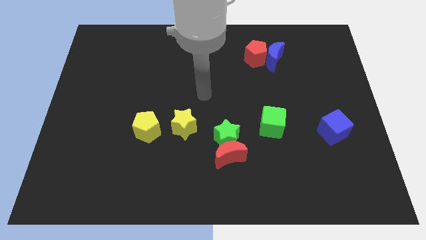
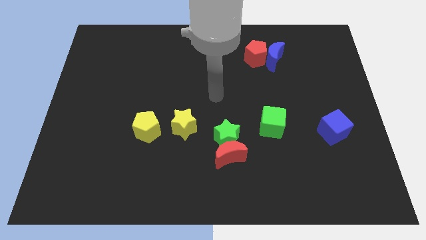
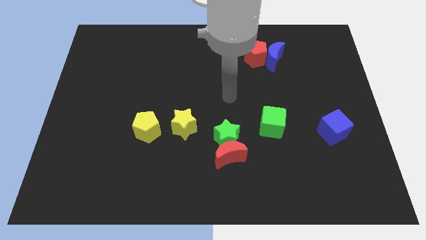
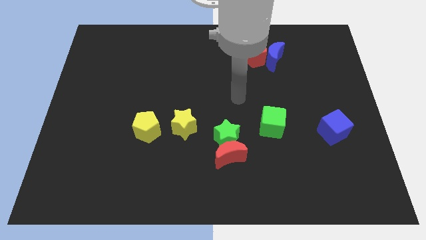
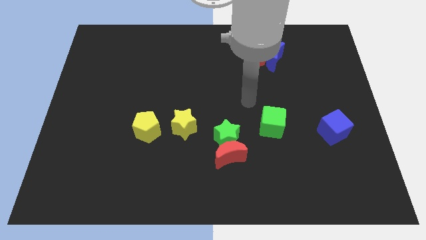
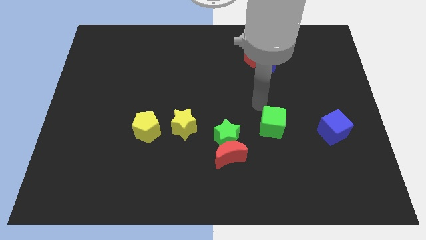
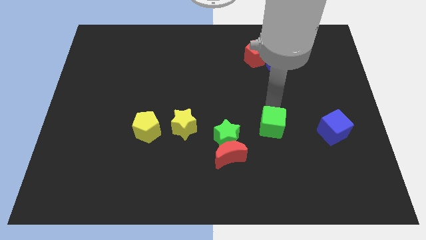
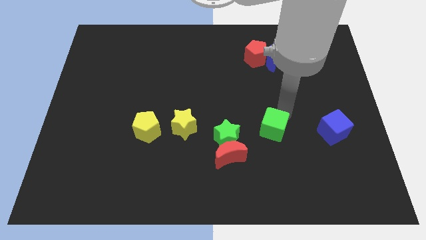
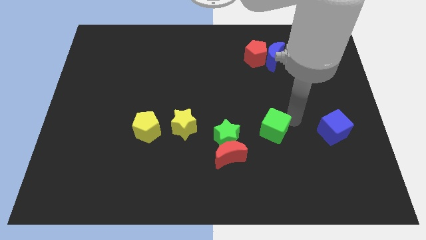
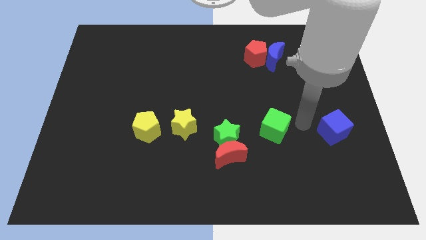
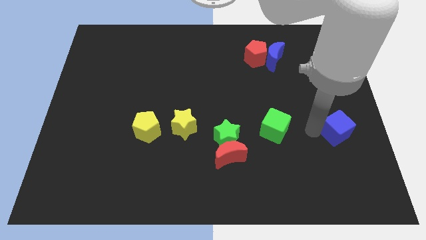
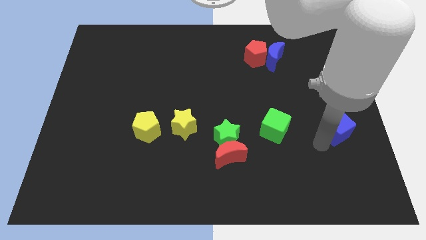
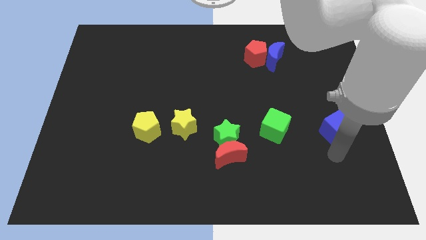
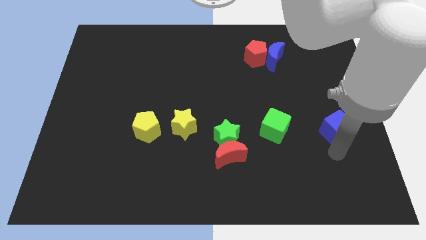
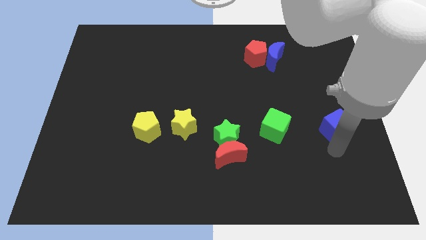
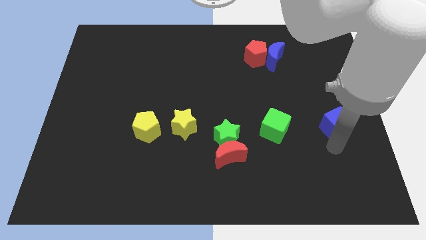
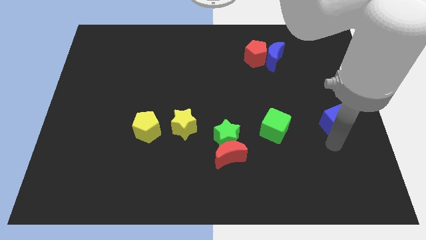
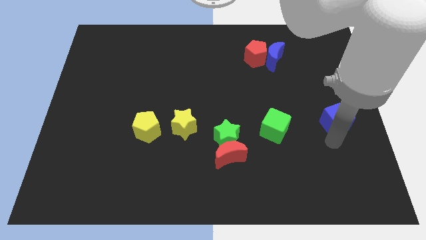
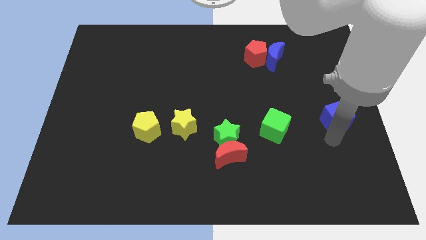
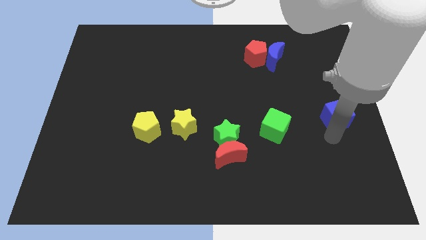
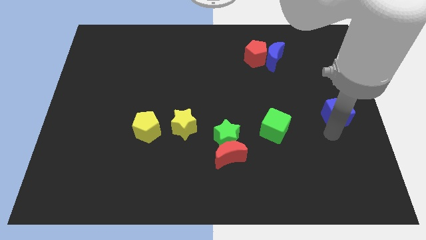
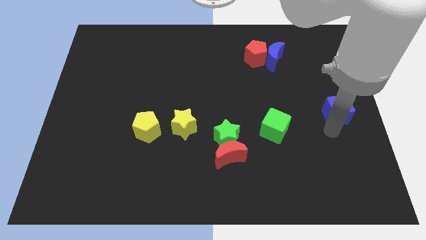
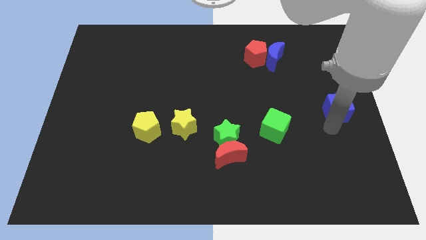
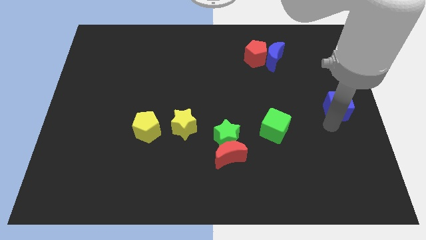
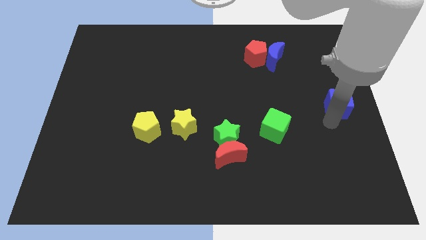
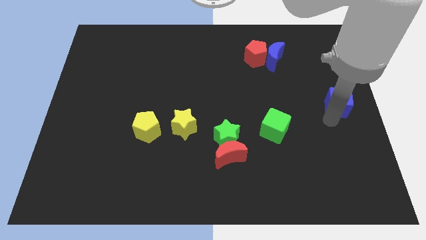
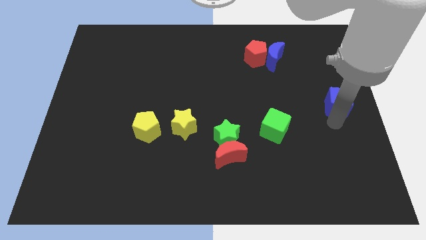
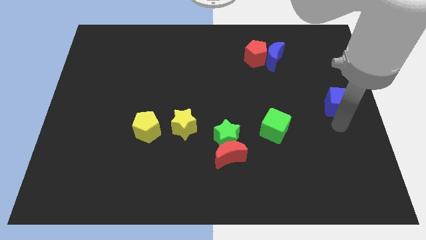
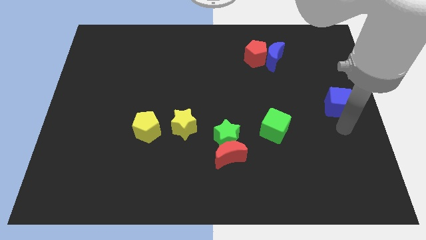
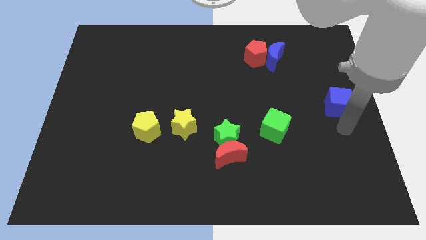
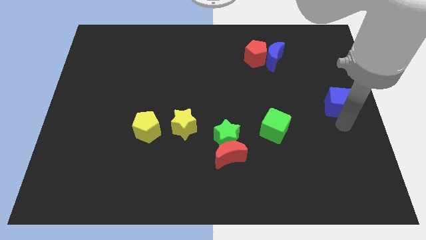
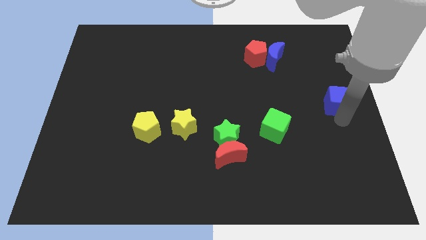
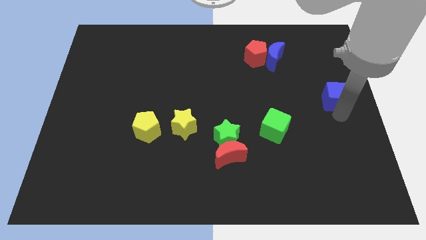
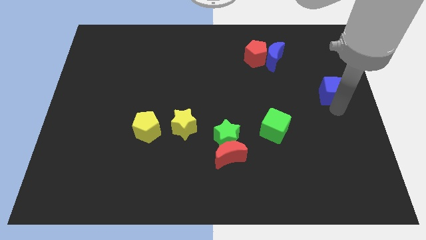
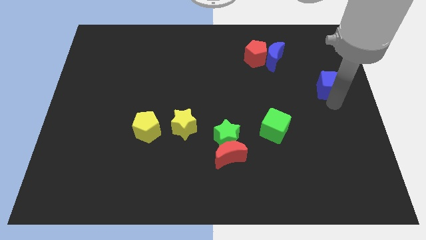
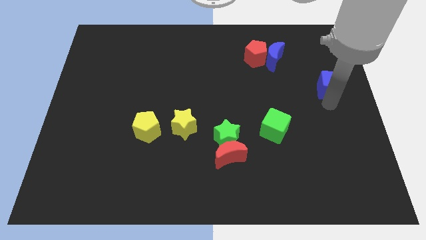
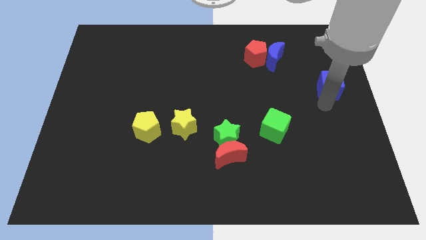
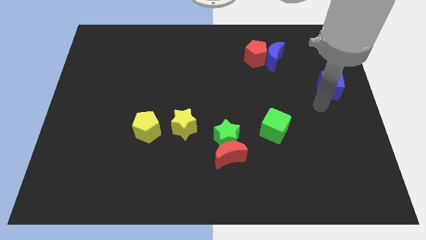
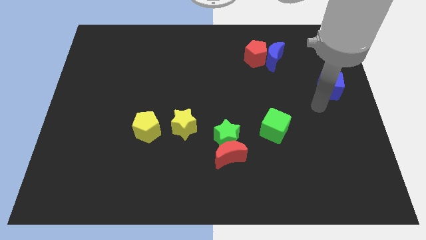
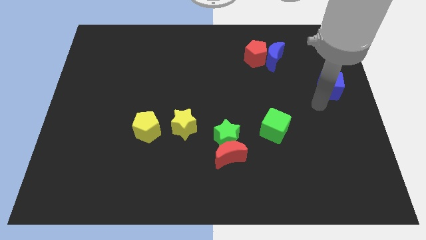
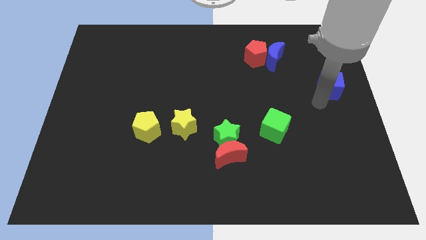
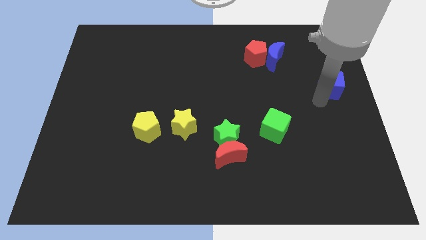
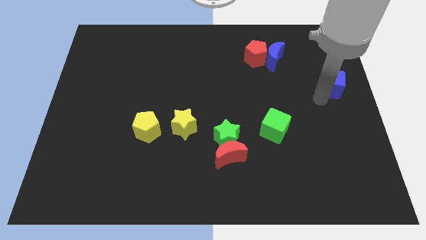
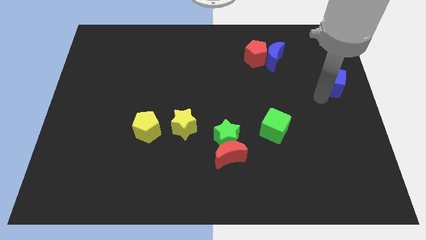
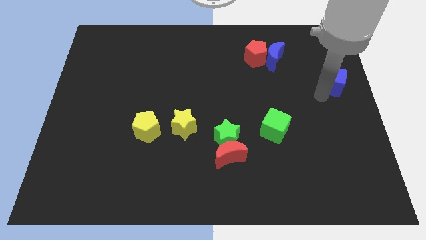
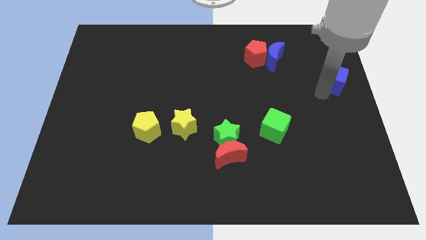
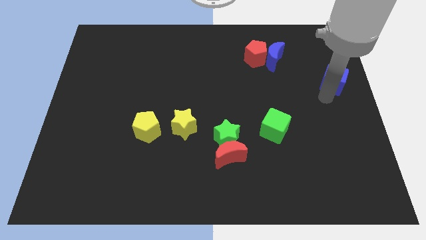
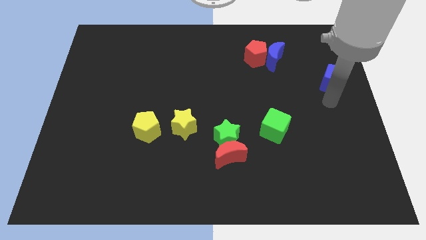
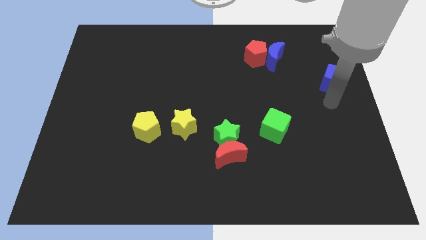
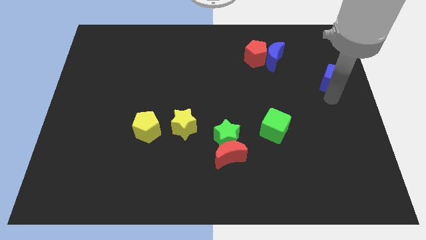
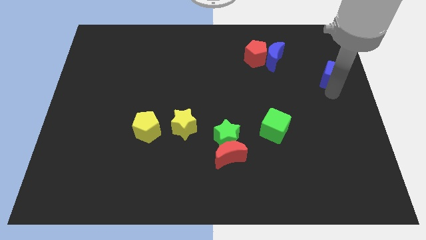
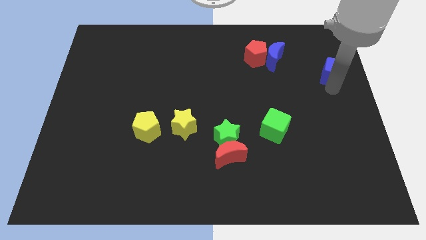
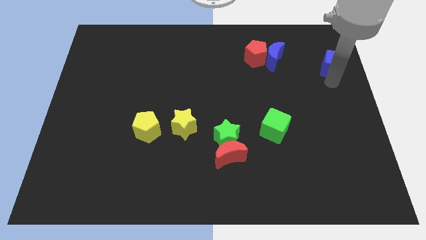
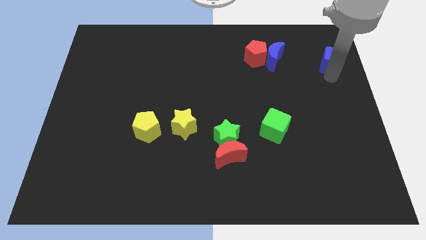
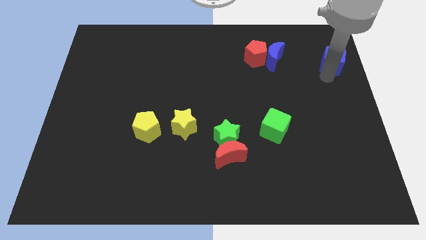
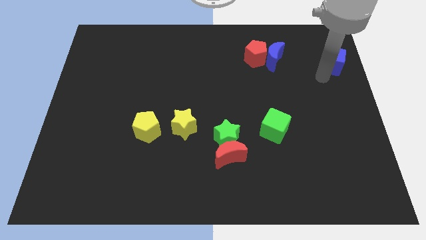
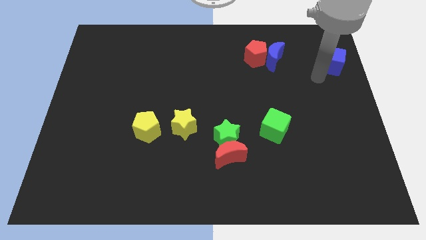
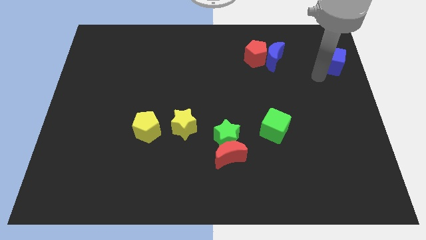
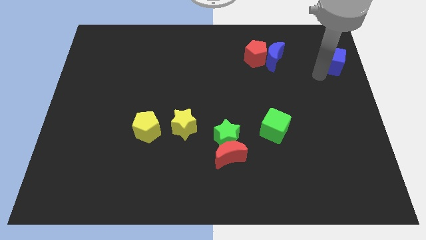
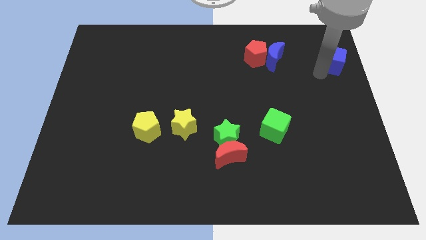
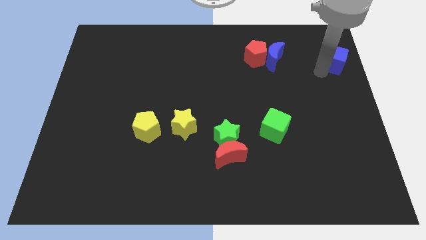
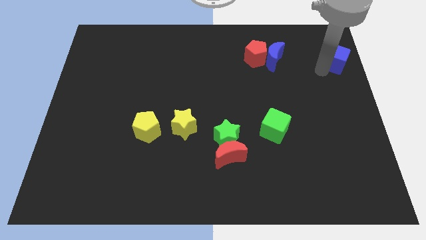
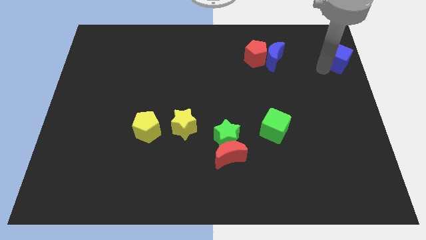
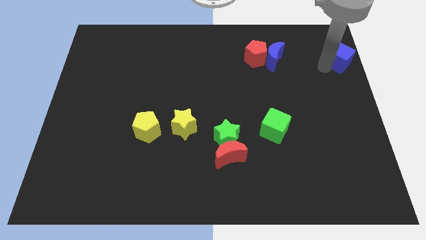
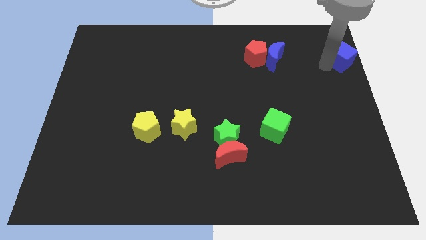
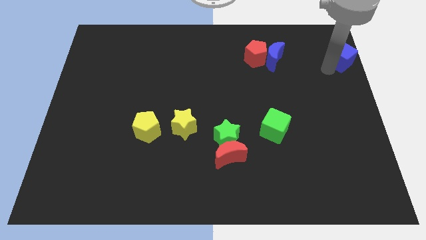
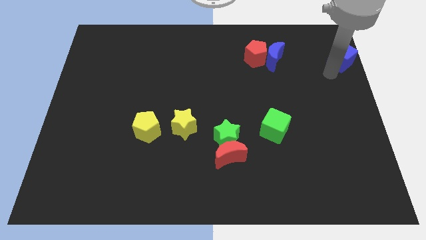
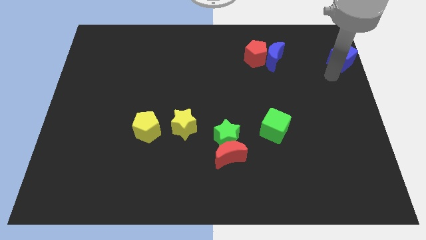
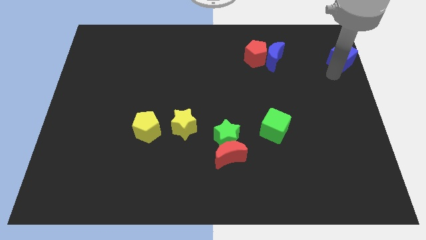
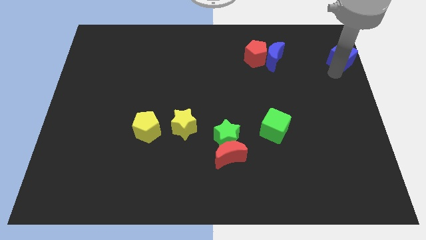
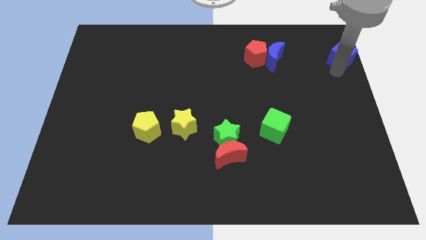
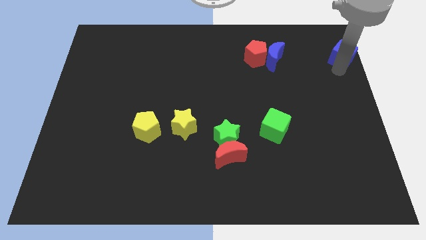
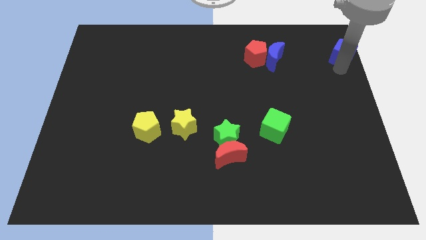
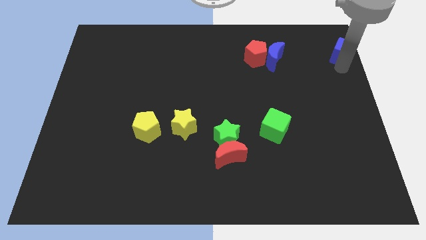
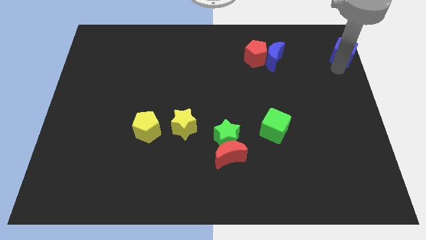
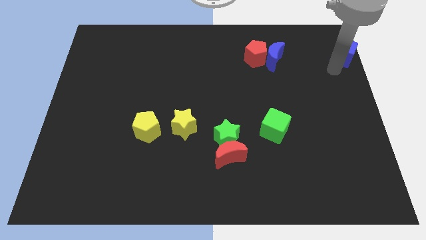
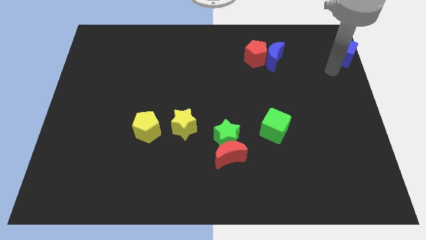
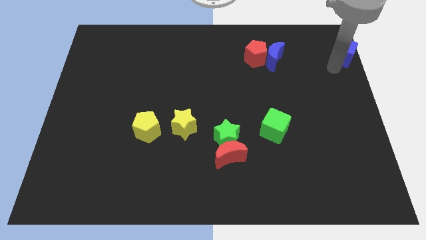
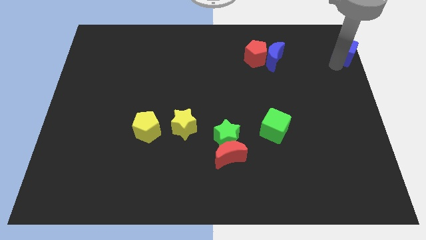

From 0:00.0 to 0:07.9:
push the blue cube to the top right corner
